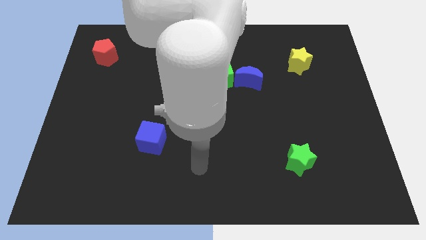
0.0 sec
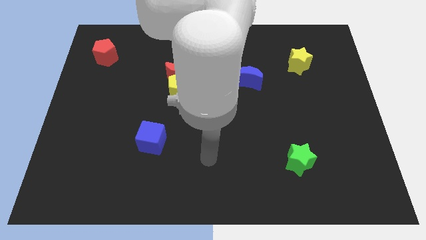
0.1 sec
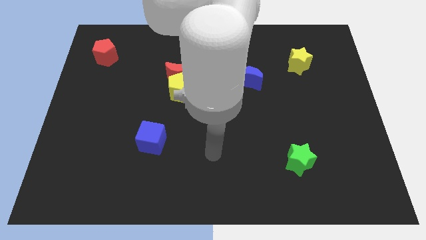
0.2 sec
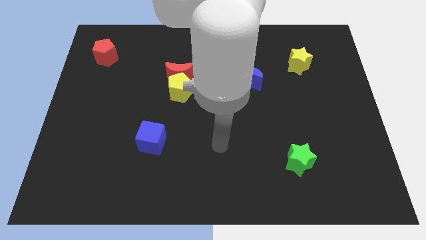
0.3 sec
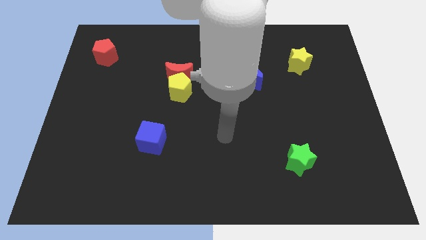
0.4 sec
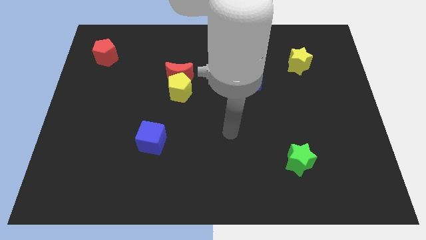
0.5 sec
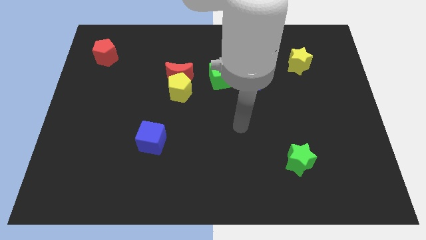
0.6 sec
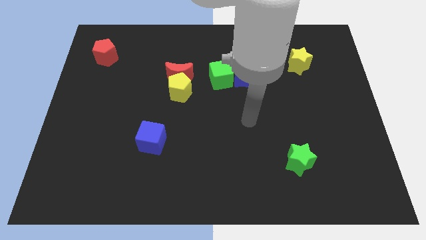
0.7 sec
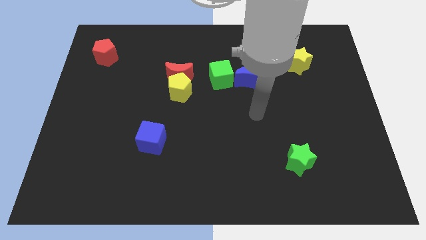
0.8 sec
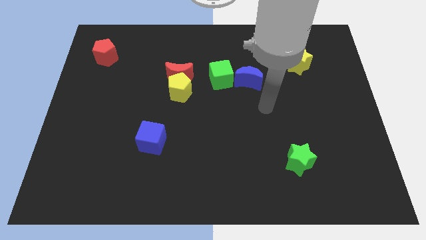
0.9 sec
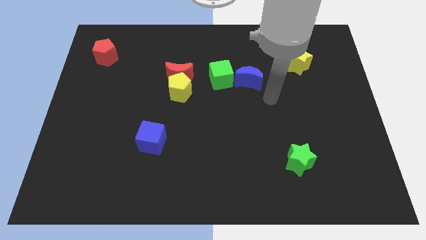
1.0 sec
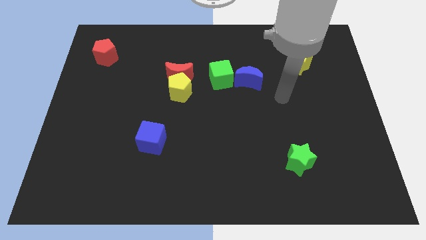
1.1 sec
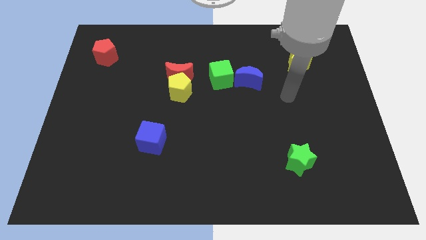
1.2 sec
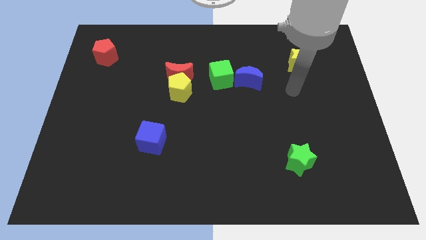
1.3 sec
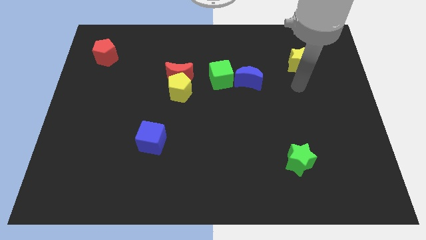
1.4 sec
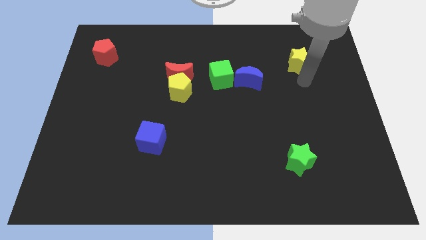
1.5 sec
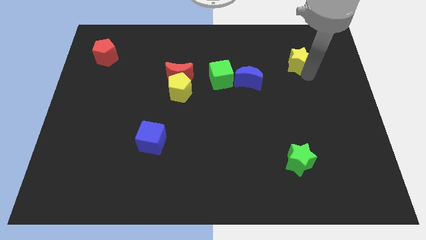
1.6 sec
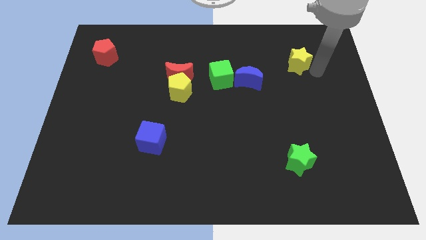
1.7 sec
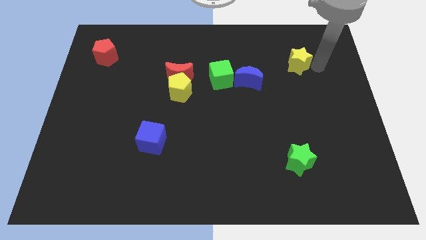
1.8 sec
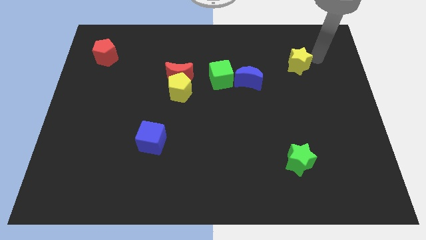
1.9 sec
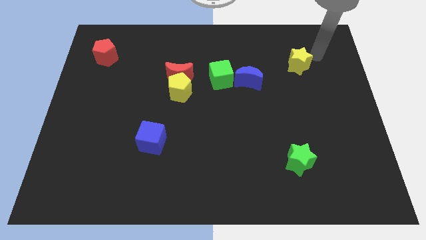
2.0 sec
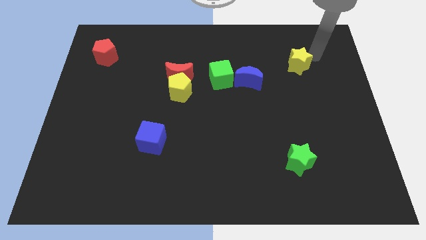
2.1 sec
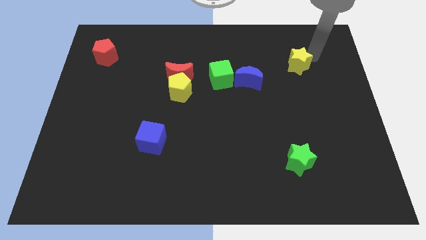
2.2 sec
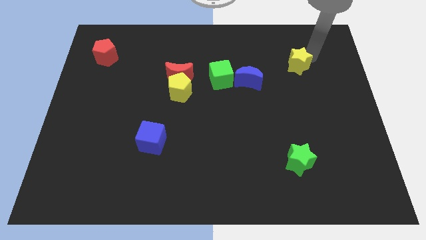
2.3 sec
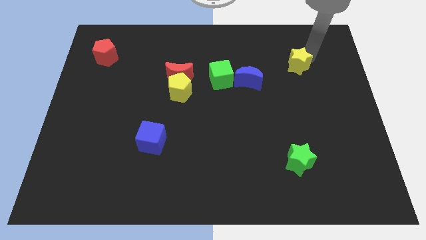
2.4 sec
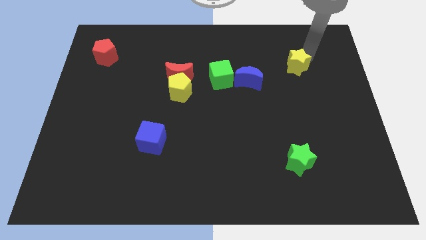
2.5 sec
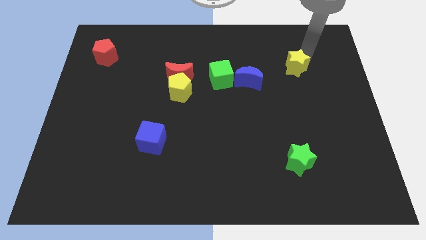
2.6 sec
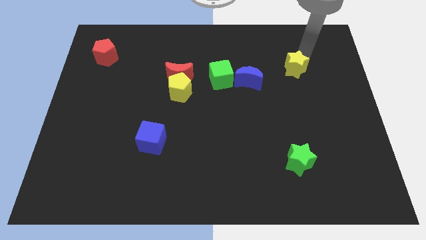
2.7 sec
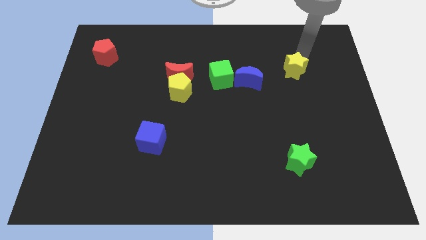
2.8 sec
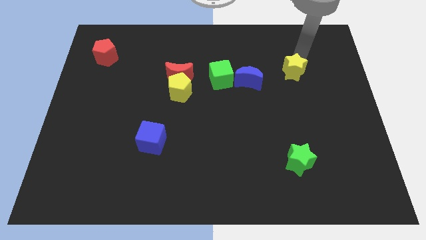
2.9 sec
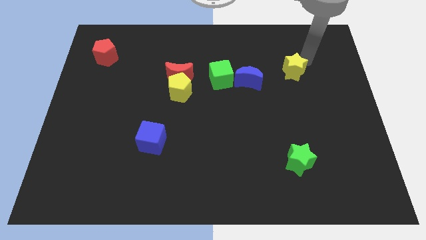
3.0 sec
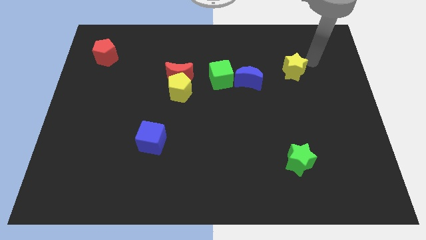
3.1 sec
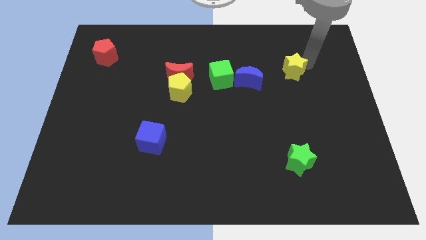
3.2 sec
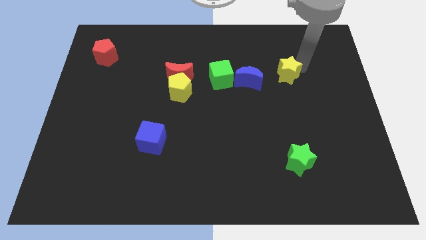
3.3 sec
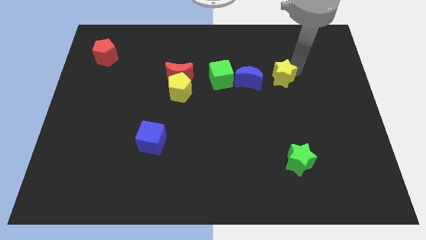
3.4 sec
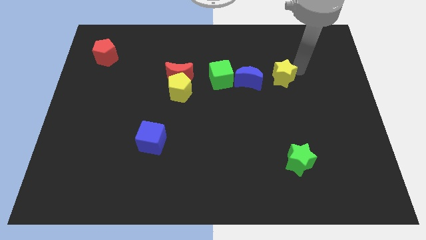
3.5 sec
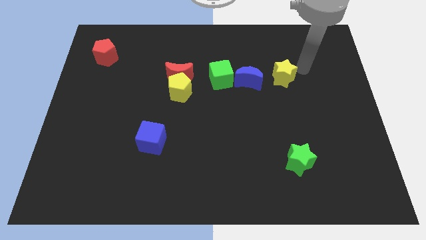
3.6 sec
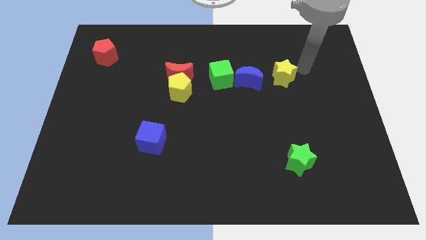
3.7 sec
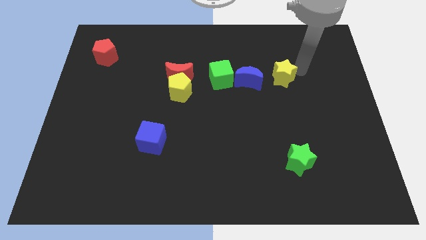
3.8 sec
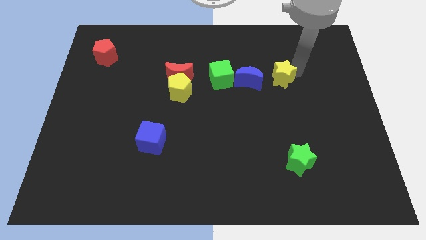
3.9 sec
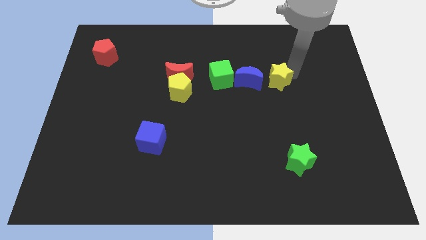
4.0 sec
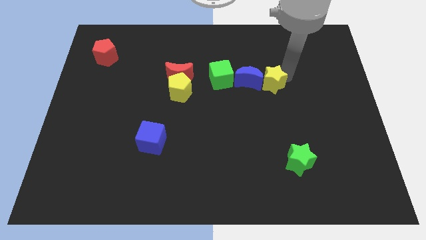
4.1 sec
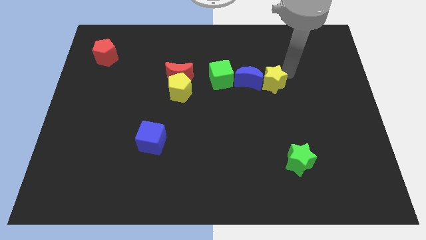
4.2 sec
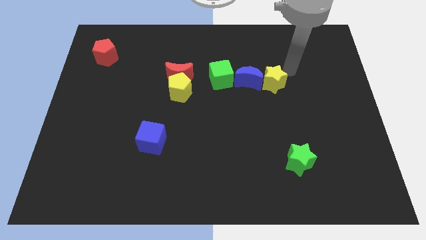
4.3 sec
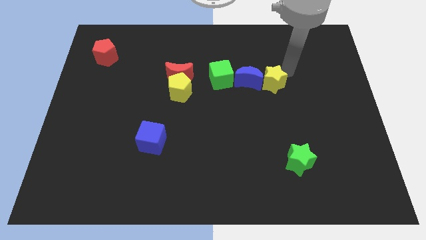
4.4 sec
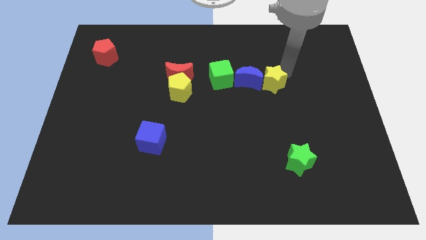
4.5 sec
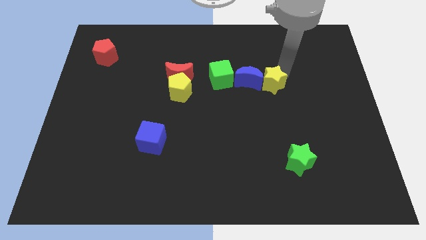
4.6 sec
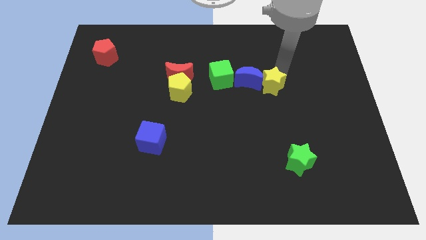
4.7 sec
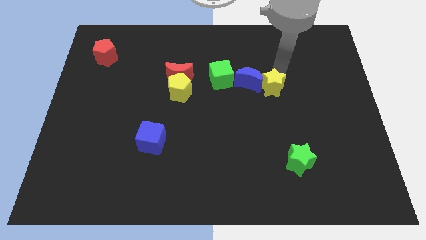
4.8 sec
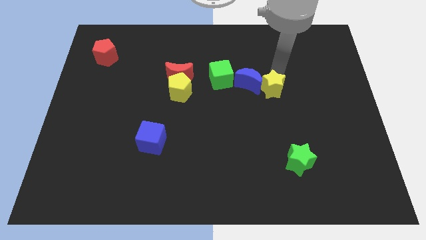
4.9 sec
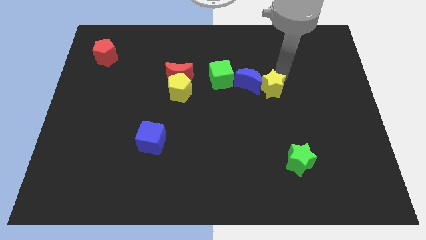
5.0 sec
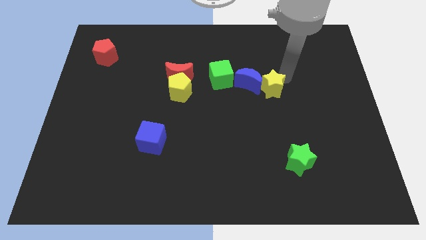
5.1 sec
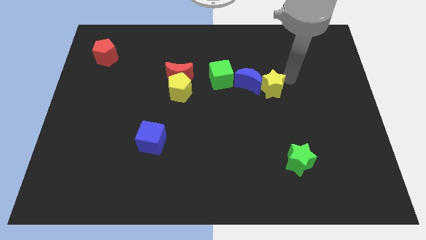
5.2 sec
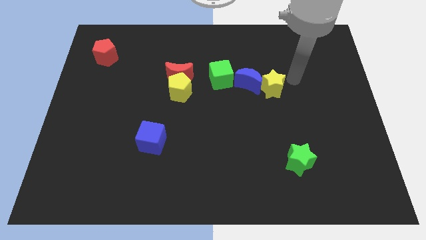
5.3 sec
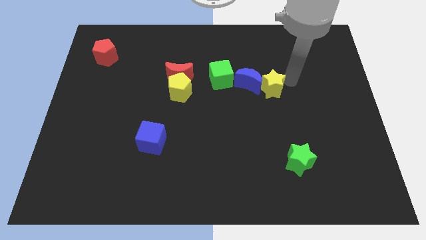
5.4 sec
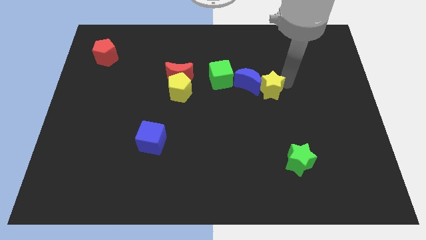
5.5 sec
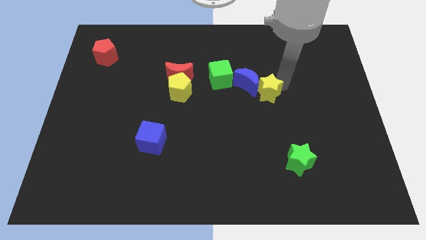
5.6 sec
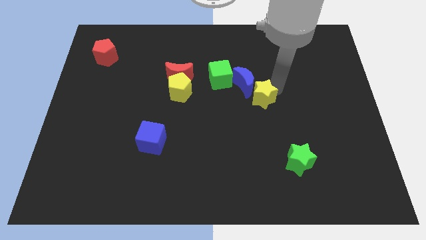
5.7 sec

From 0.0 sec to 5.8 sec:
put the yellow star to the middle of the board

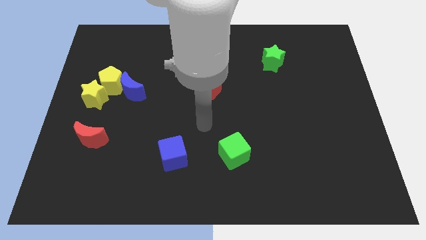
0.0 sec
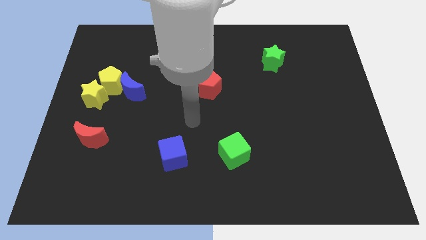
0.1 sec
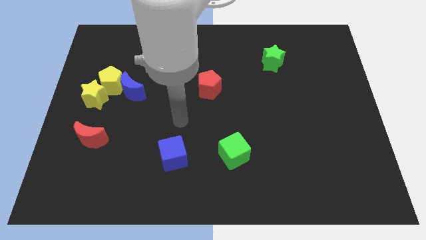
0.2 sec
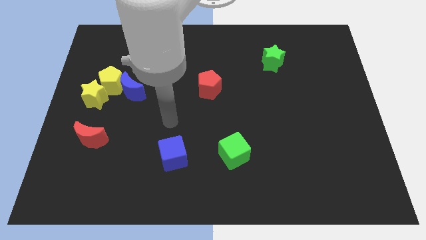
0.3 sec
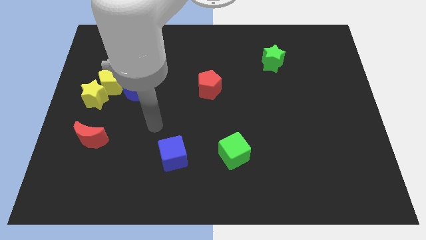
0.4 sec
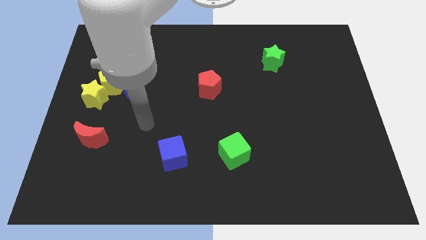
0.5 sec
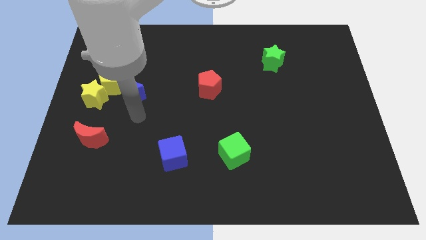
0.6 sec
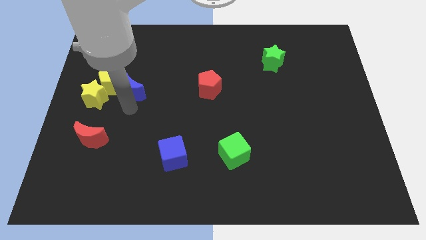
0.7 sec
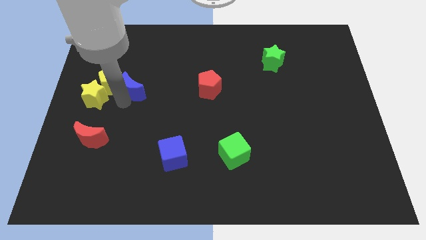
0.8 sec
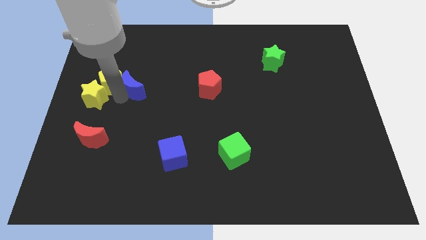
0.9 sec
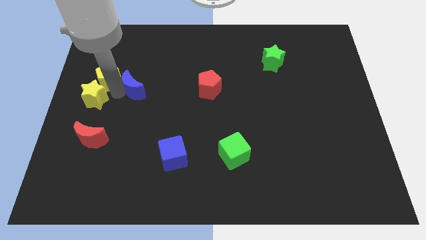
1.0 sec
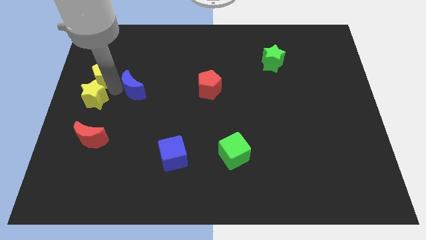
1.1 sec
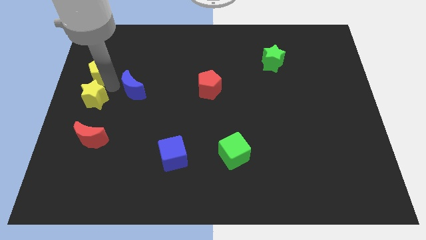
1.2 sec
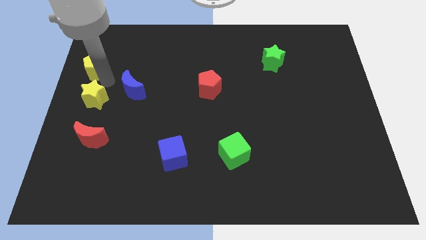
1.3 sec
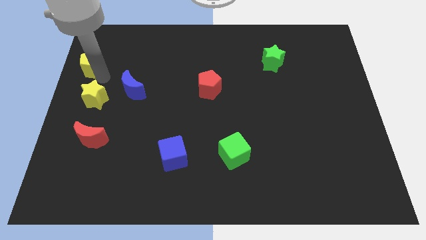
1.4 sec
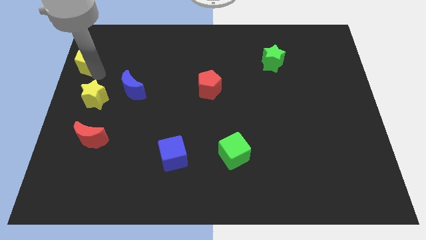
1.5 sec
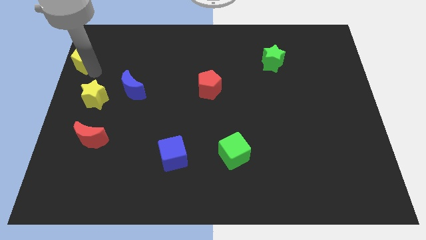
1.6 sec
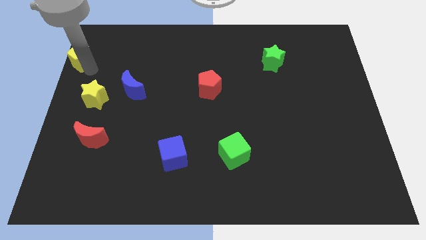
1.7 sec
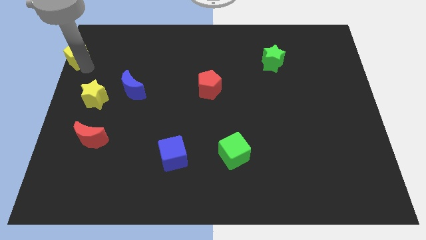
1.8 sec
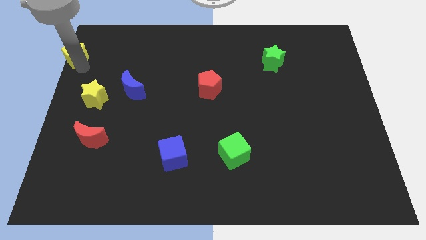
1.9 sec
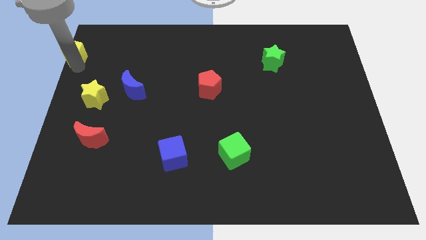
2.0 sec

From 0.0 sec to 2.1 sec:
move the yellow pentagon to the top left
